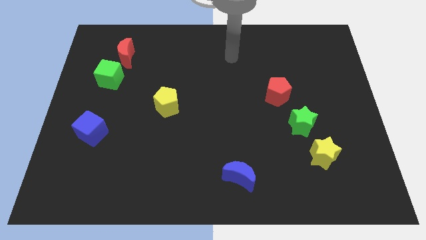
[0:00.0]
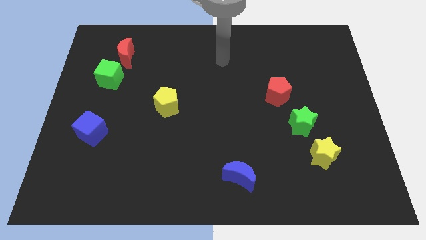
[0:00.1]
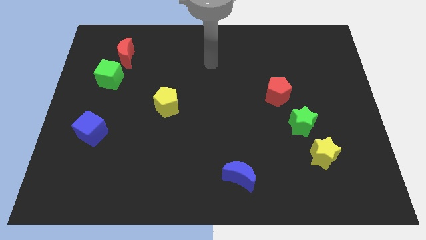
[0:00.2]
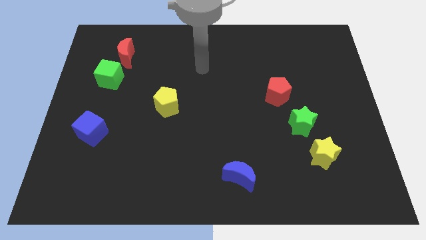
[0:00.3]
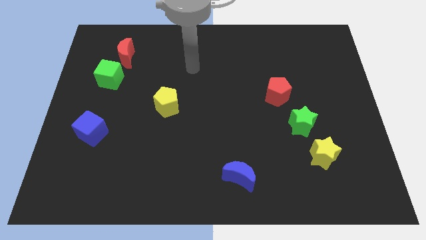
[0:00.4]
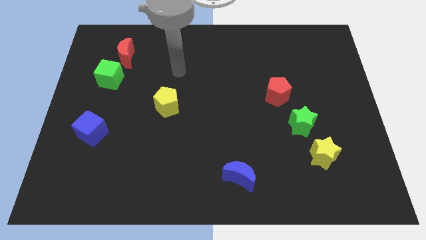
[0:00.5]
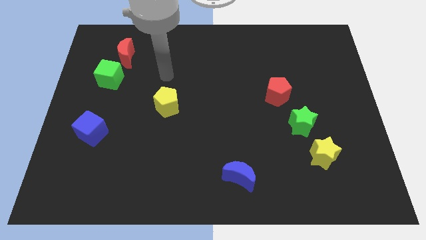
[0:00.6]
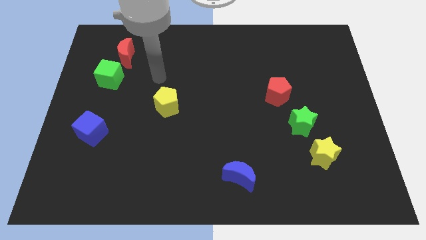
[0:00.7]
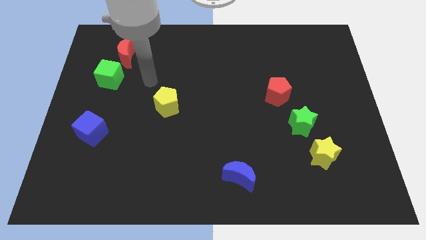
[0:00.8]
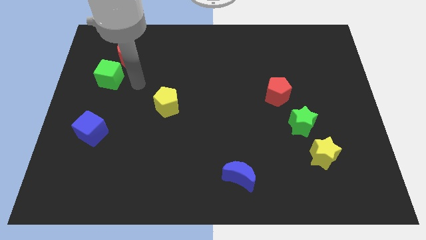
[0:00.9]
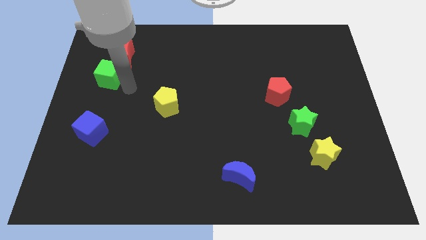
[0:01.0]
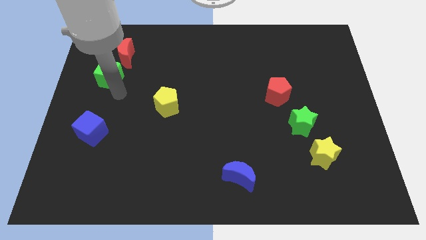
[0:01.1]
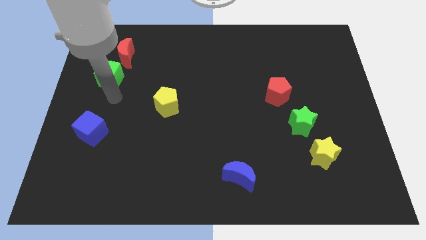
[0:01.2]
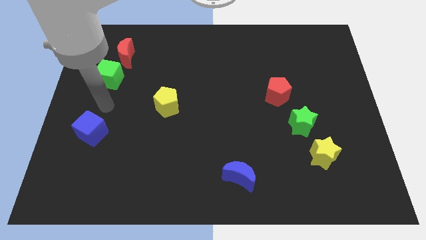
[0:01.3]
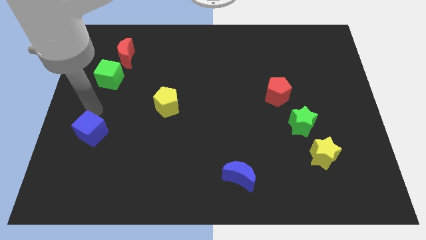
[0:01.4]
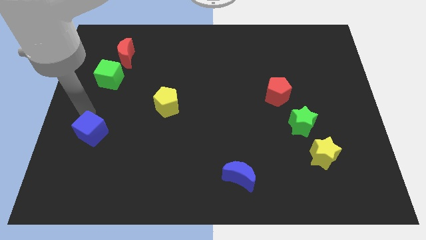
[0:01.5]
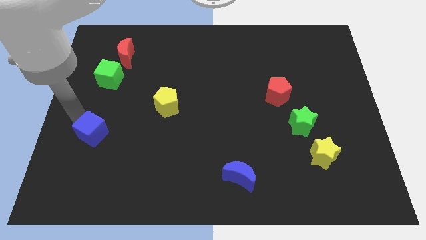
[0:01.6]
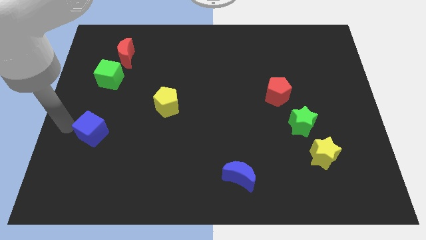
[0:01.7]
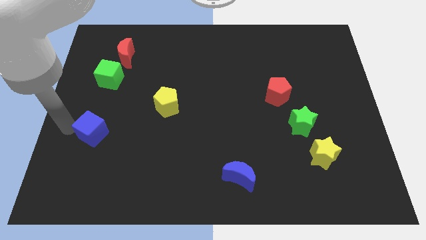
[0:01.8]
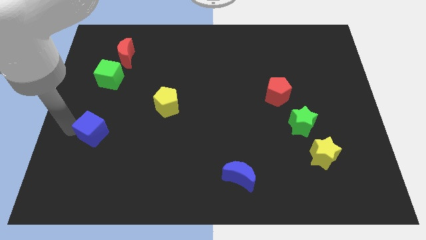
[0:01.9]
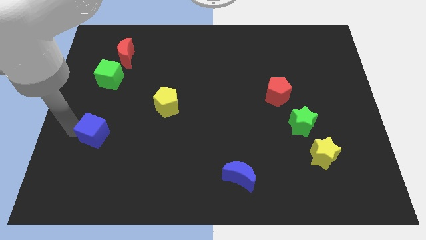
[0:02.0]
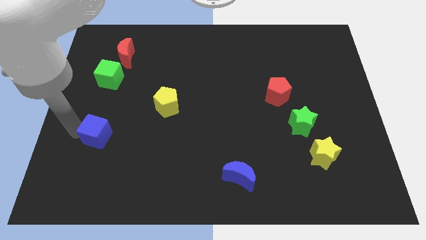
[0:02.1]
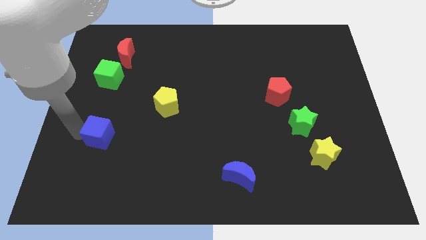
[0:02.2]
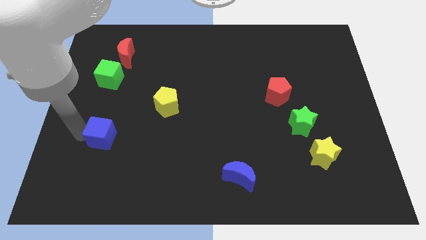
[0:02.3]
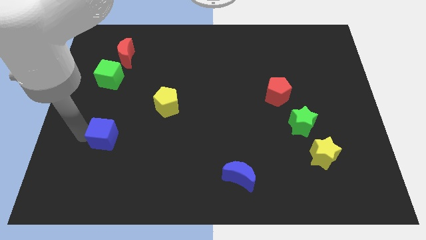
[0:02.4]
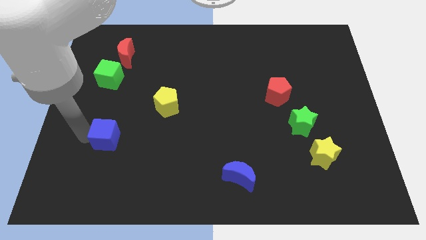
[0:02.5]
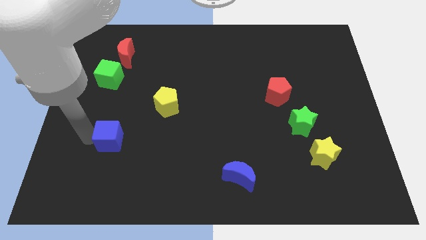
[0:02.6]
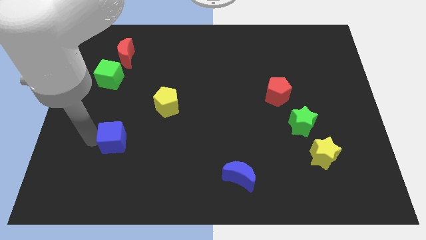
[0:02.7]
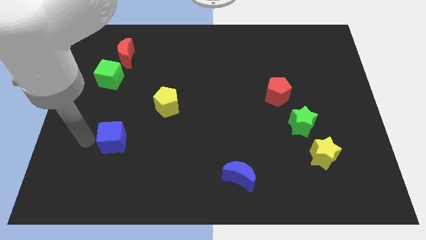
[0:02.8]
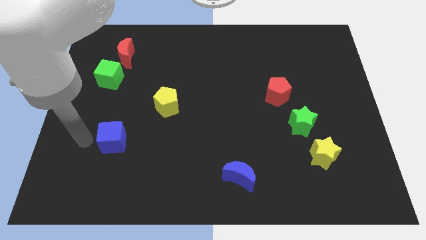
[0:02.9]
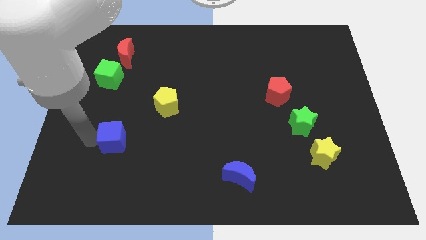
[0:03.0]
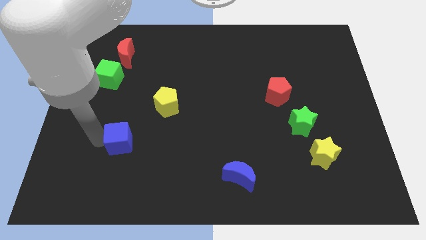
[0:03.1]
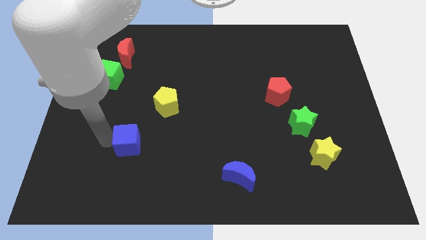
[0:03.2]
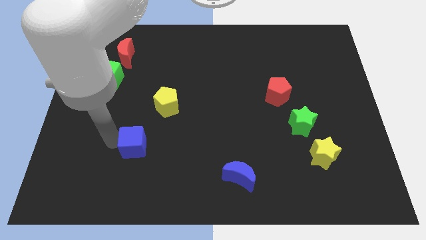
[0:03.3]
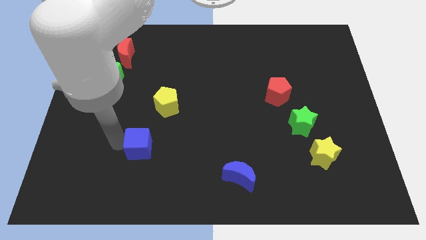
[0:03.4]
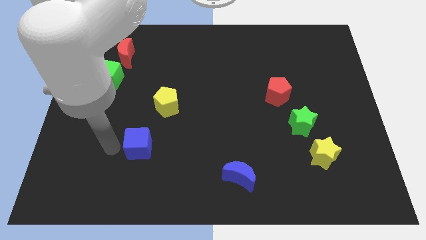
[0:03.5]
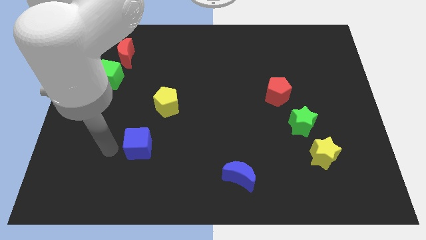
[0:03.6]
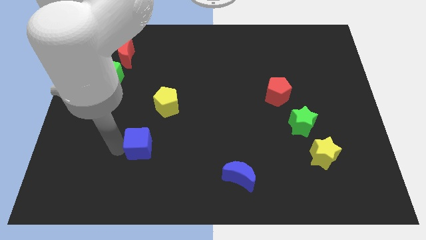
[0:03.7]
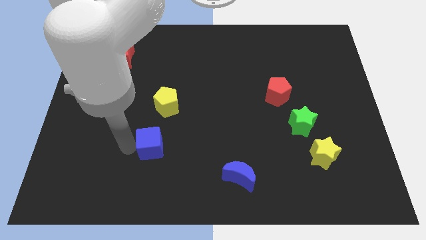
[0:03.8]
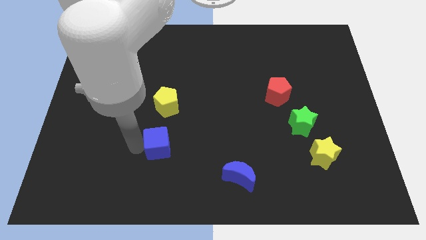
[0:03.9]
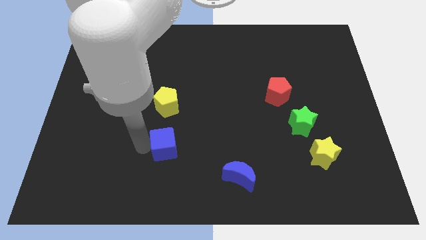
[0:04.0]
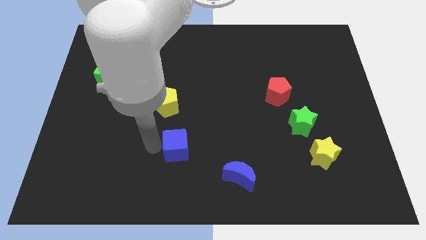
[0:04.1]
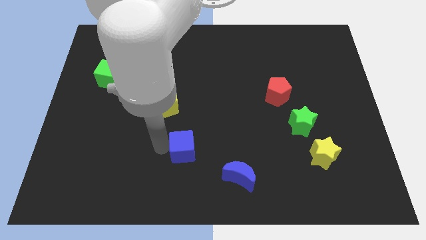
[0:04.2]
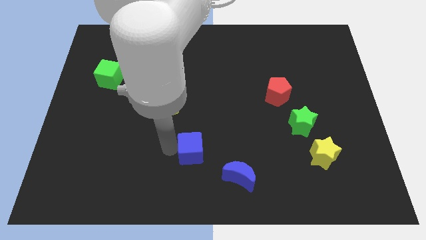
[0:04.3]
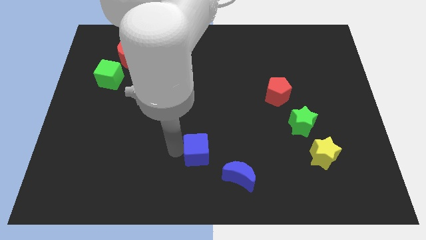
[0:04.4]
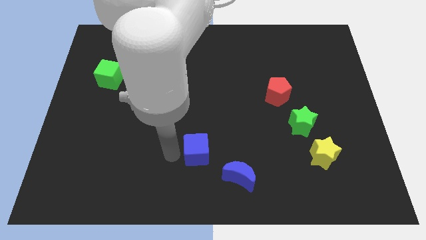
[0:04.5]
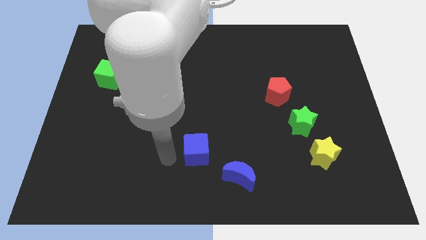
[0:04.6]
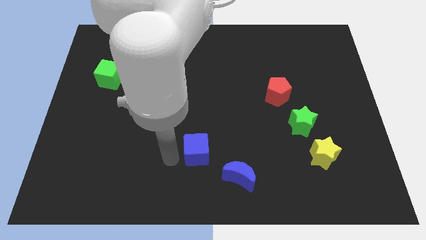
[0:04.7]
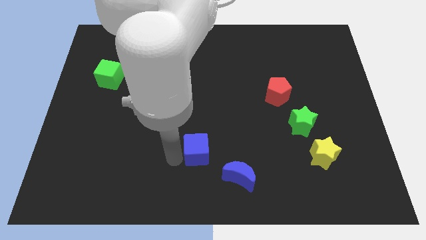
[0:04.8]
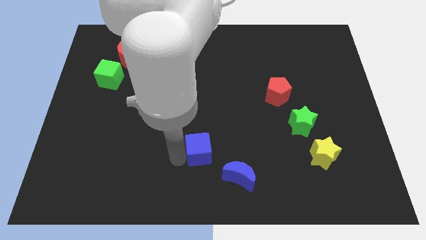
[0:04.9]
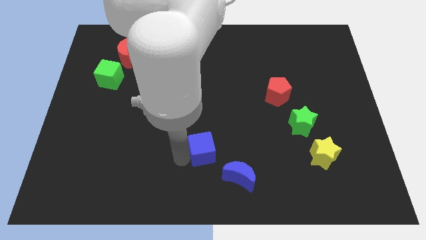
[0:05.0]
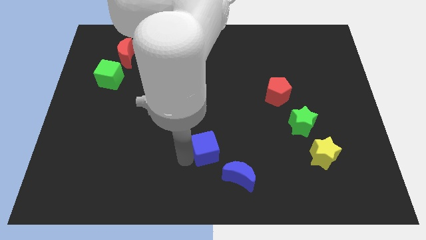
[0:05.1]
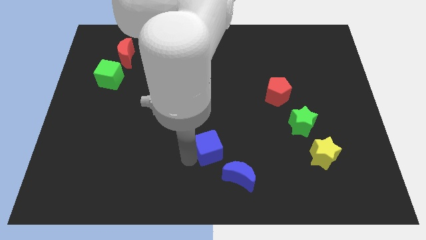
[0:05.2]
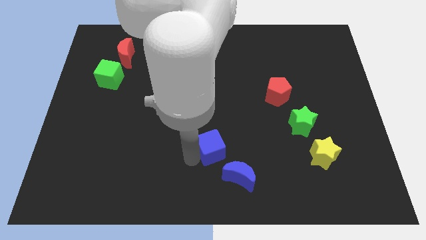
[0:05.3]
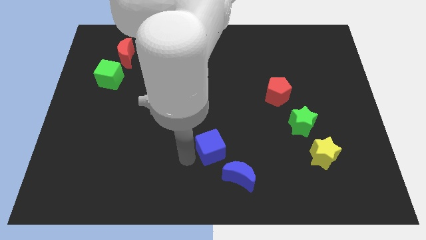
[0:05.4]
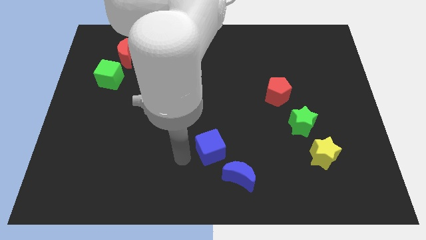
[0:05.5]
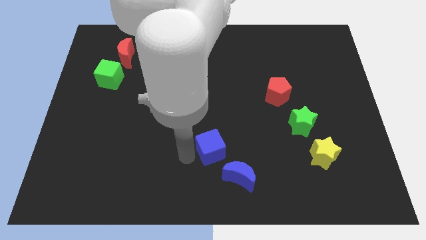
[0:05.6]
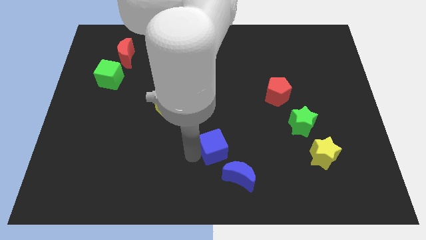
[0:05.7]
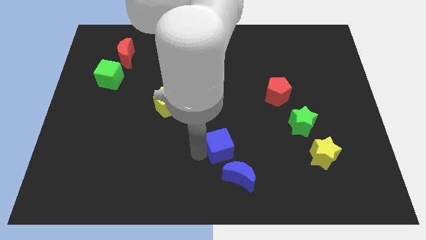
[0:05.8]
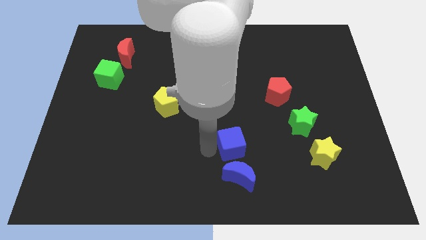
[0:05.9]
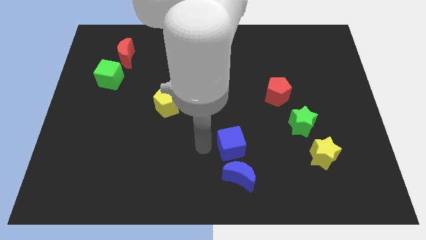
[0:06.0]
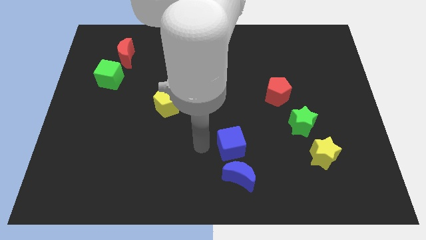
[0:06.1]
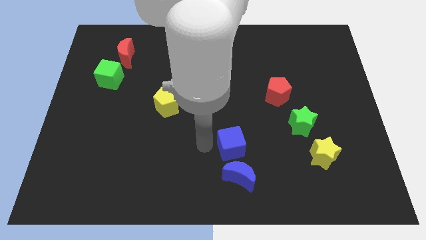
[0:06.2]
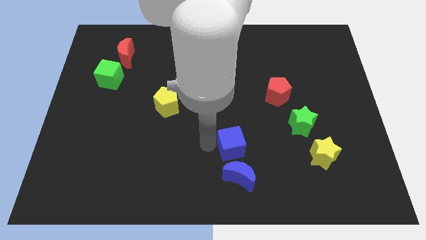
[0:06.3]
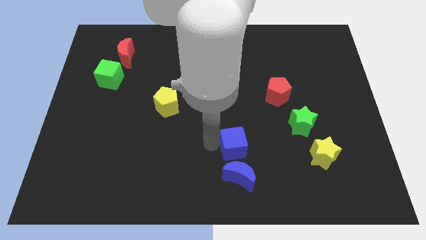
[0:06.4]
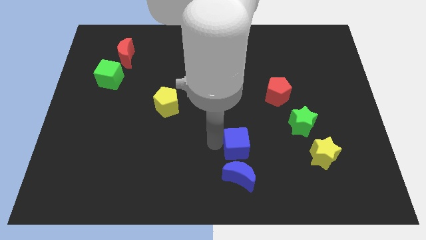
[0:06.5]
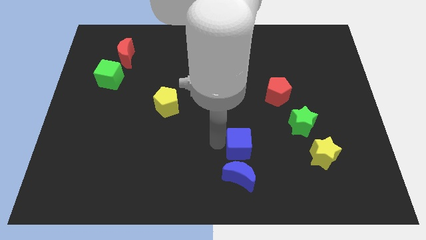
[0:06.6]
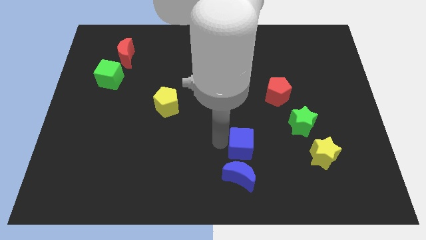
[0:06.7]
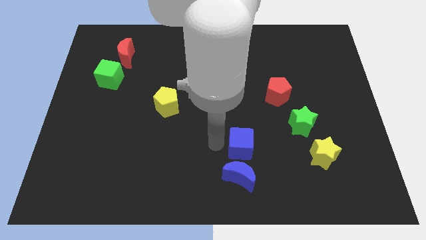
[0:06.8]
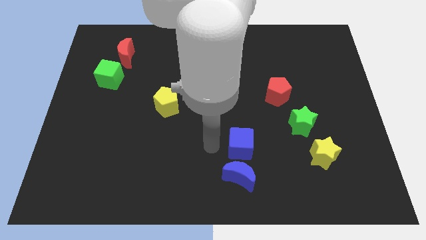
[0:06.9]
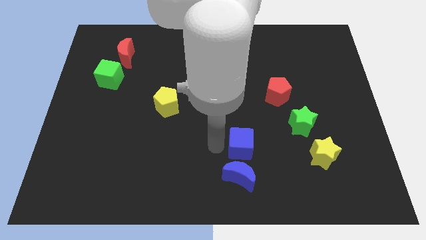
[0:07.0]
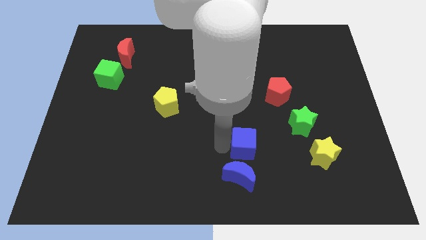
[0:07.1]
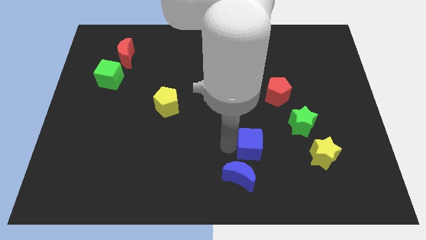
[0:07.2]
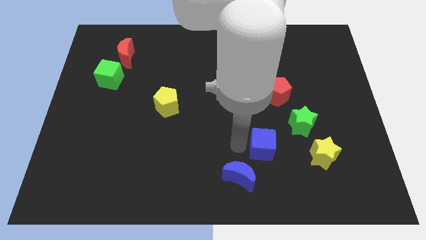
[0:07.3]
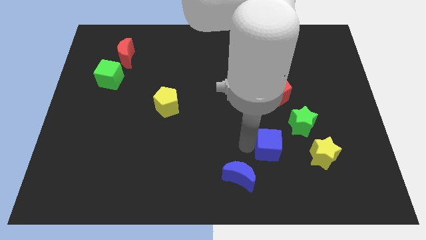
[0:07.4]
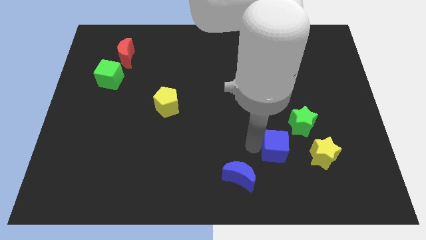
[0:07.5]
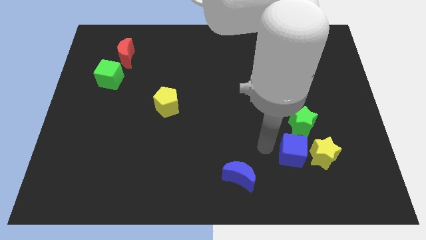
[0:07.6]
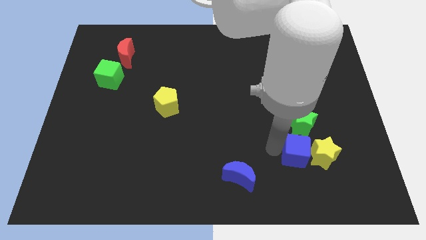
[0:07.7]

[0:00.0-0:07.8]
put the blue cube to the yellow star
